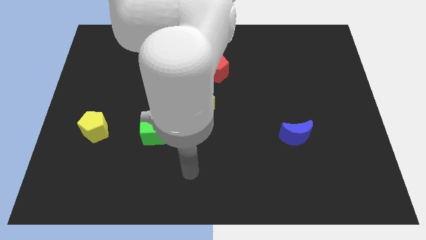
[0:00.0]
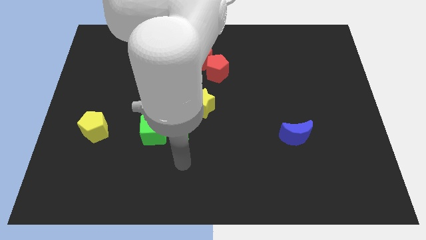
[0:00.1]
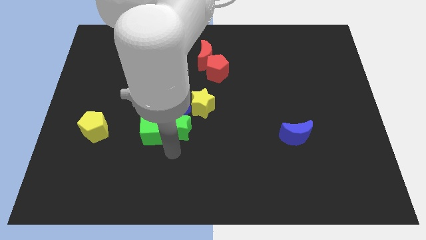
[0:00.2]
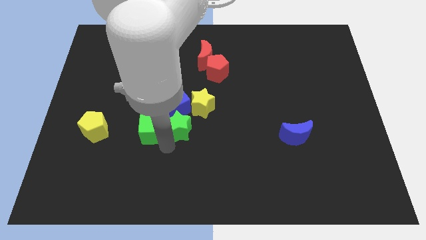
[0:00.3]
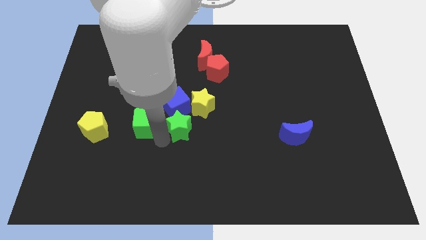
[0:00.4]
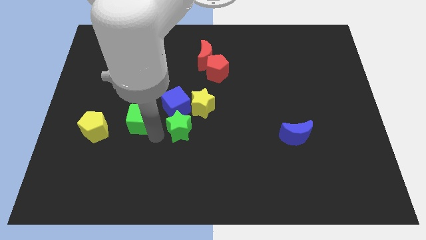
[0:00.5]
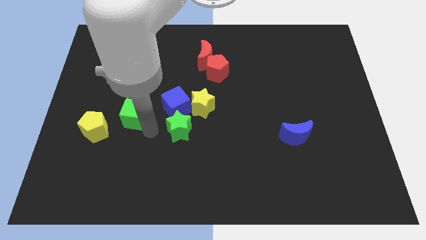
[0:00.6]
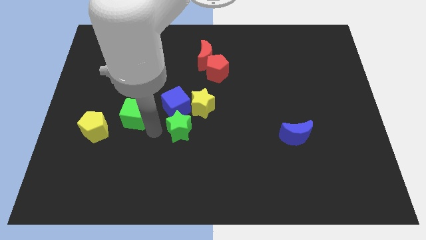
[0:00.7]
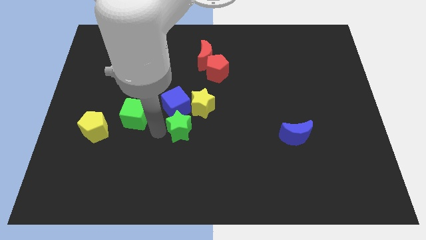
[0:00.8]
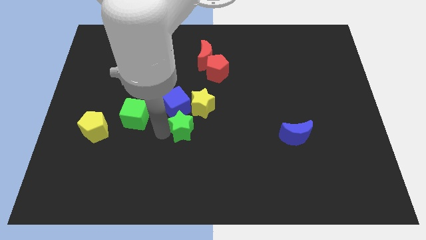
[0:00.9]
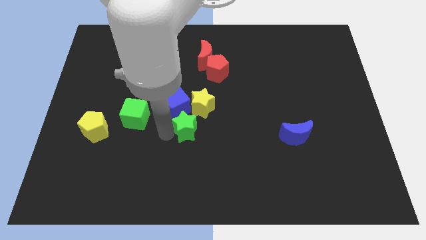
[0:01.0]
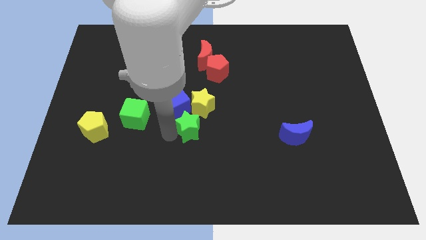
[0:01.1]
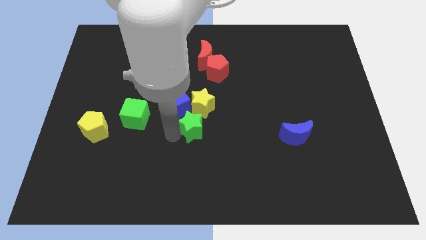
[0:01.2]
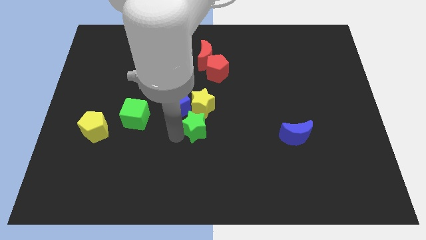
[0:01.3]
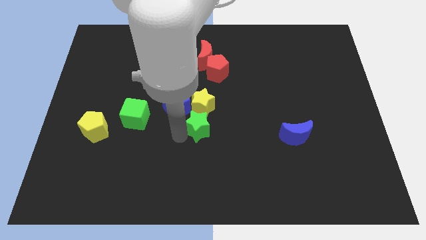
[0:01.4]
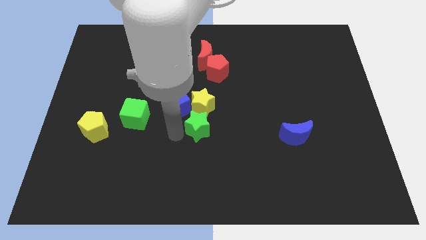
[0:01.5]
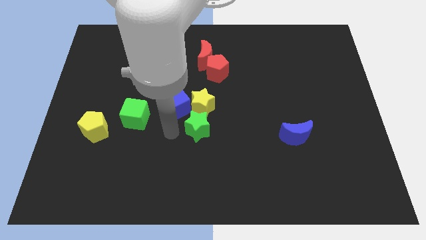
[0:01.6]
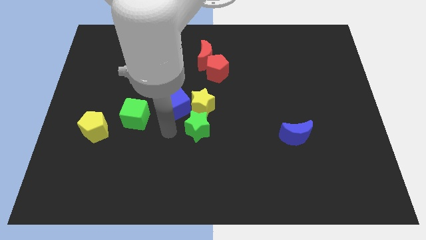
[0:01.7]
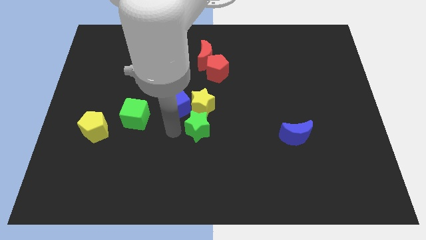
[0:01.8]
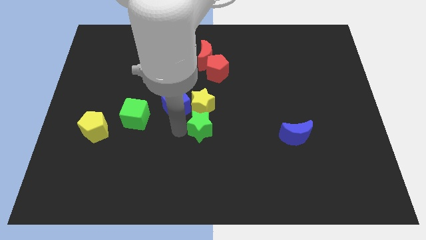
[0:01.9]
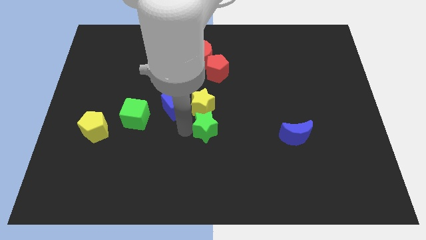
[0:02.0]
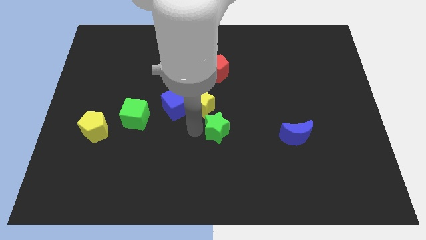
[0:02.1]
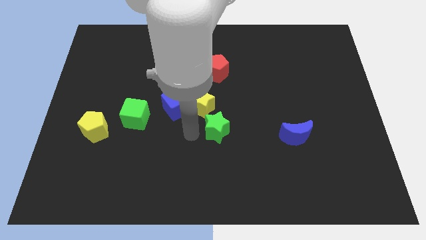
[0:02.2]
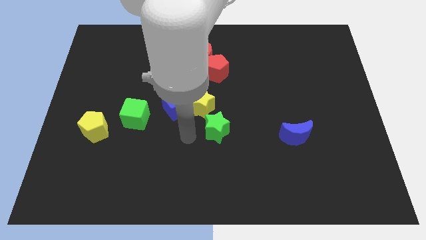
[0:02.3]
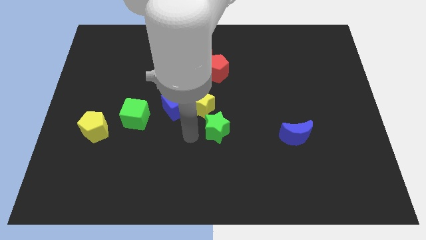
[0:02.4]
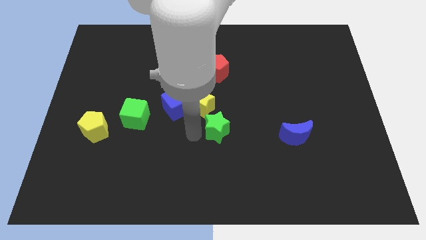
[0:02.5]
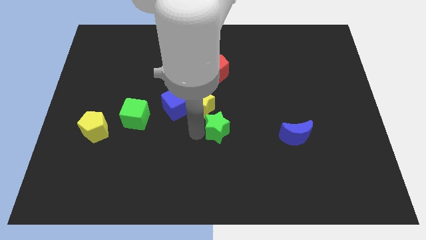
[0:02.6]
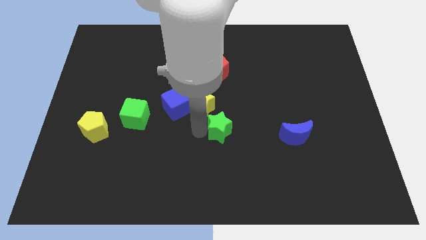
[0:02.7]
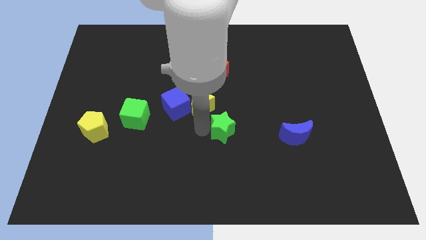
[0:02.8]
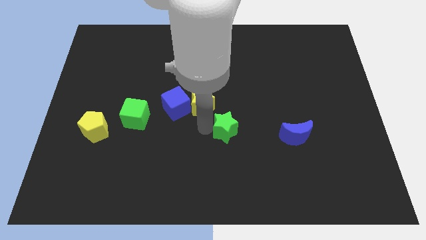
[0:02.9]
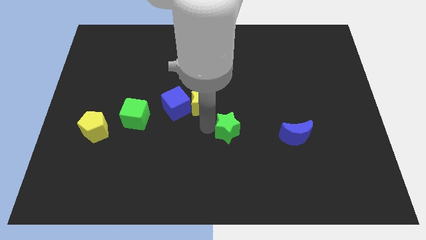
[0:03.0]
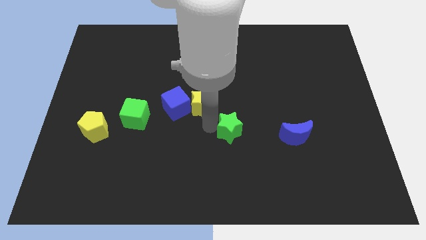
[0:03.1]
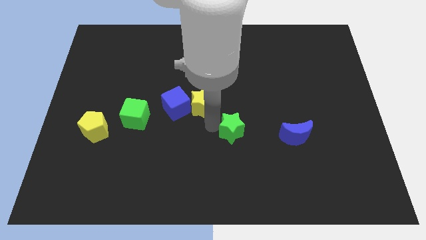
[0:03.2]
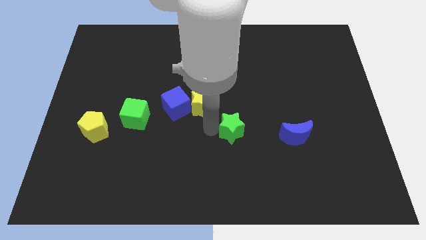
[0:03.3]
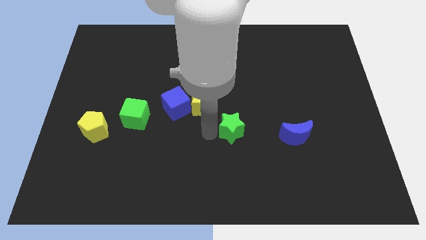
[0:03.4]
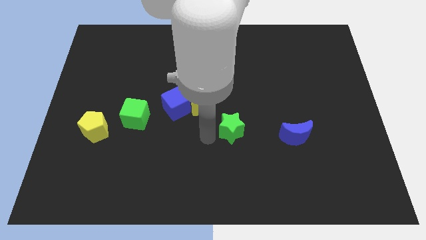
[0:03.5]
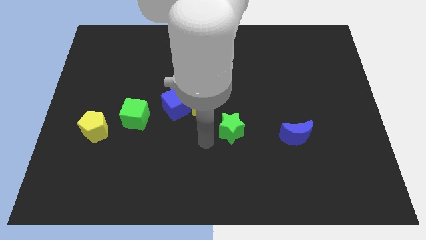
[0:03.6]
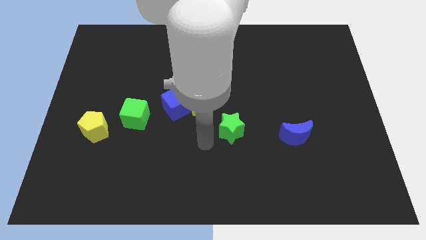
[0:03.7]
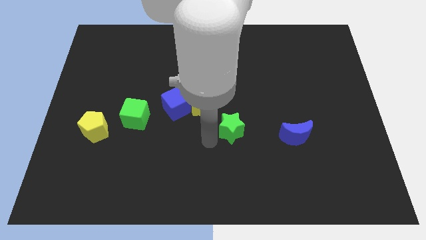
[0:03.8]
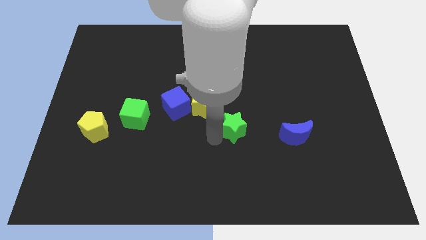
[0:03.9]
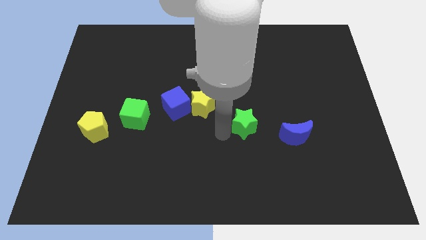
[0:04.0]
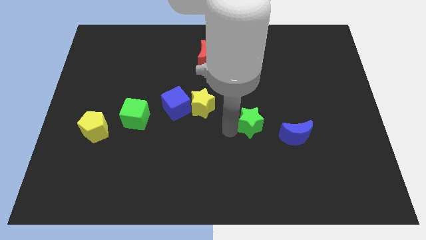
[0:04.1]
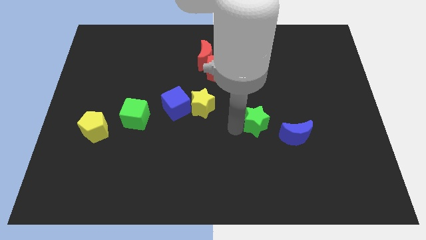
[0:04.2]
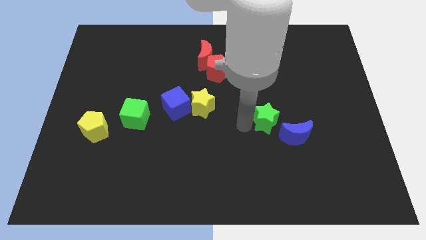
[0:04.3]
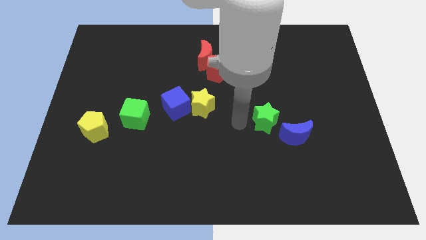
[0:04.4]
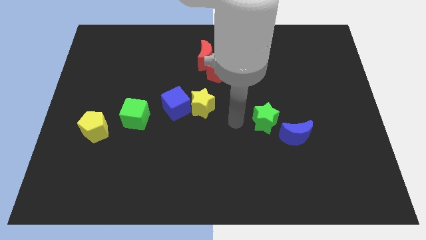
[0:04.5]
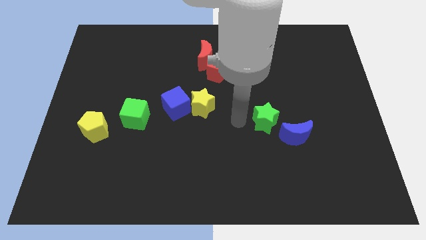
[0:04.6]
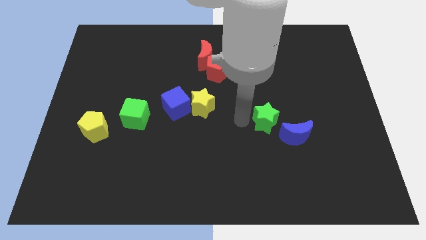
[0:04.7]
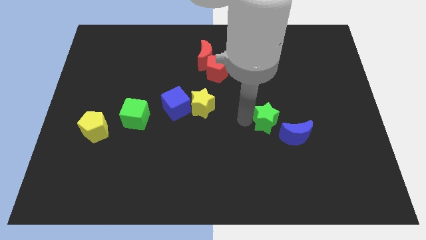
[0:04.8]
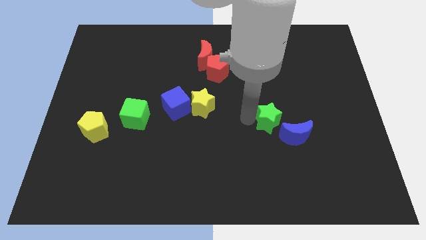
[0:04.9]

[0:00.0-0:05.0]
move the green star right

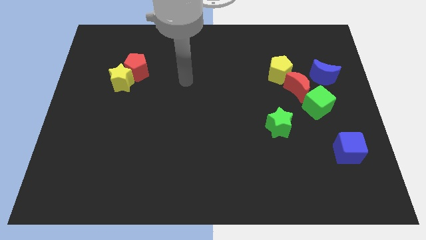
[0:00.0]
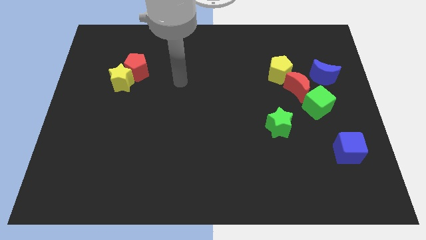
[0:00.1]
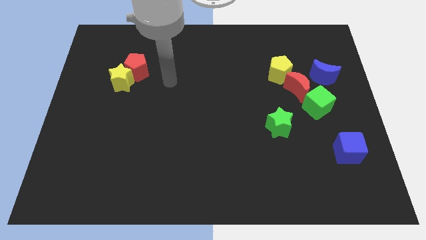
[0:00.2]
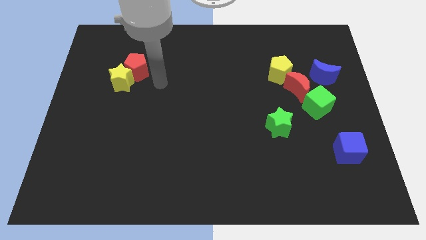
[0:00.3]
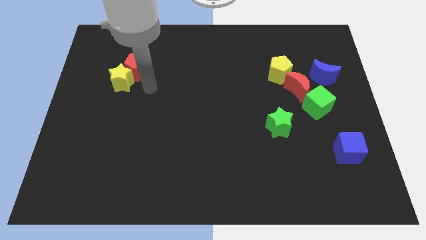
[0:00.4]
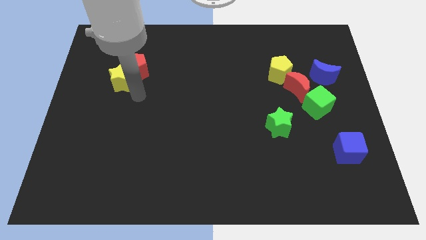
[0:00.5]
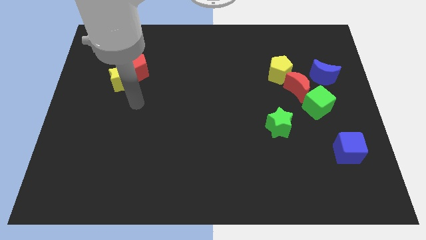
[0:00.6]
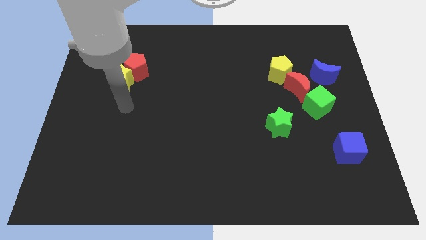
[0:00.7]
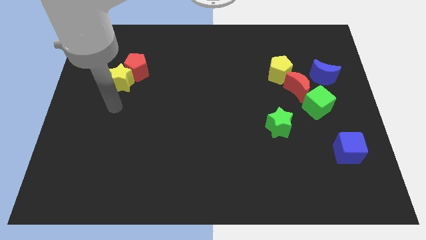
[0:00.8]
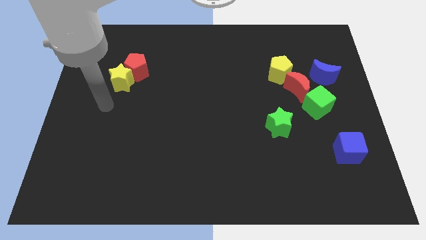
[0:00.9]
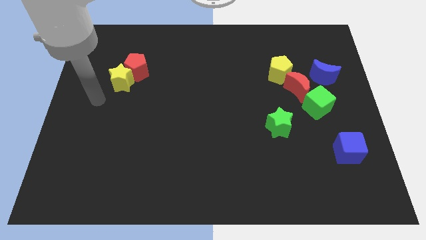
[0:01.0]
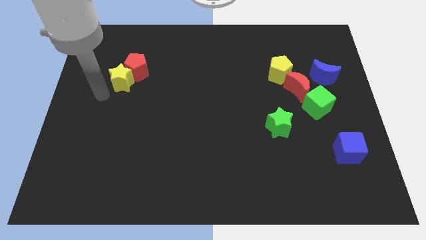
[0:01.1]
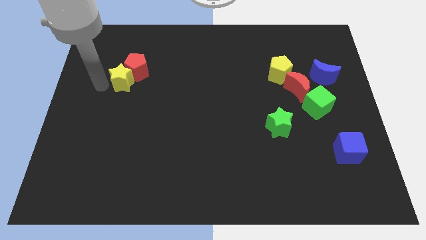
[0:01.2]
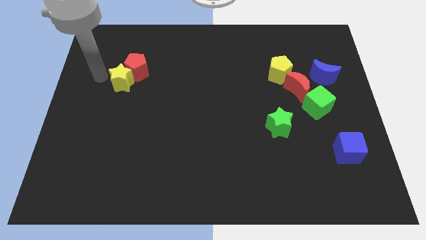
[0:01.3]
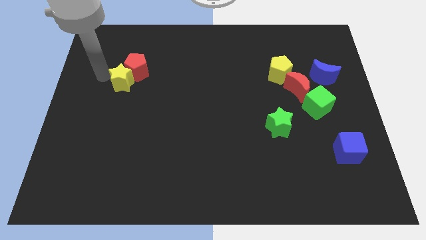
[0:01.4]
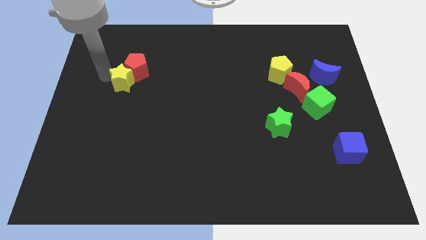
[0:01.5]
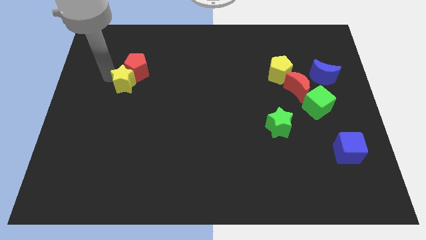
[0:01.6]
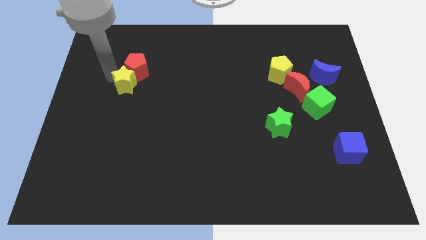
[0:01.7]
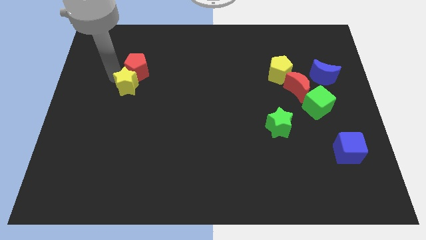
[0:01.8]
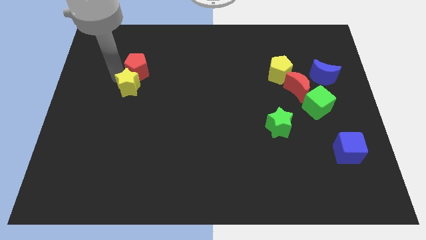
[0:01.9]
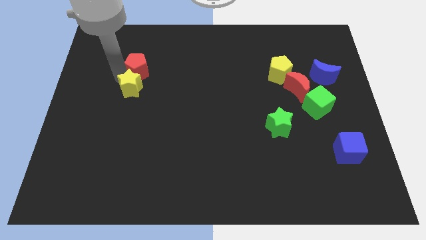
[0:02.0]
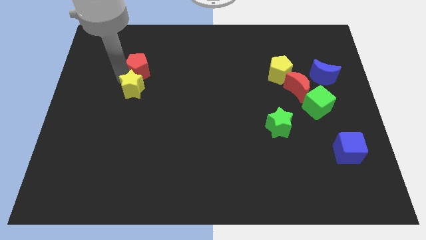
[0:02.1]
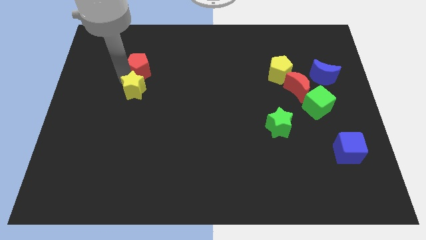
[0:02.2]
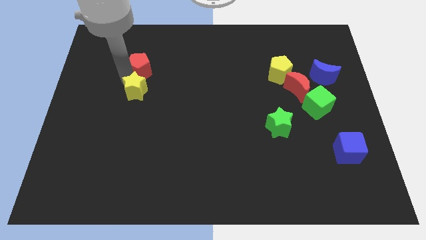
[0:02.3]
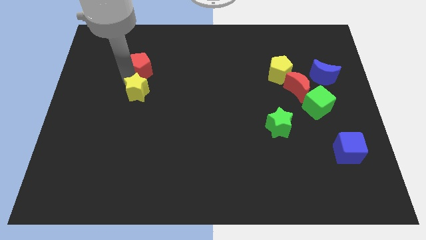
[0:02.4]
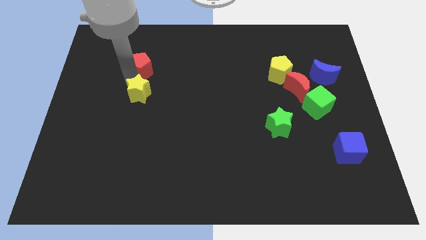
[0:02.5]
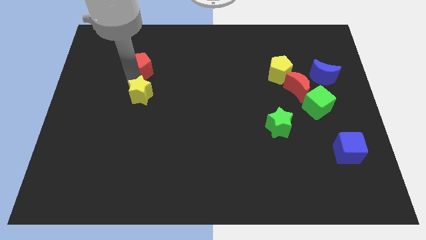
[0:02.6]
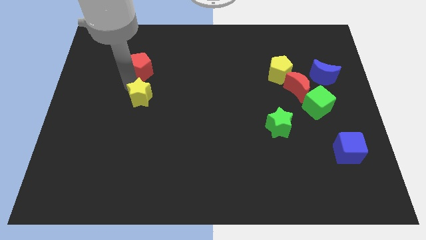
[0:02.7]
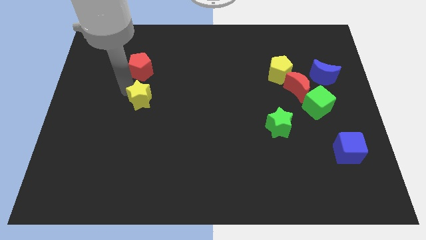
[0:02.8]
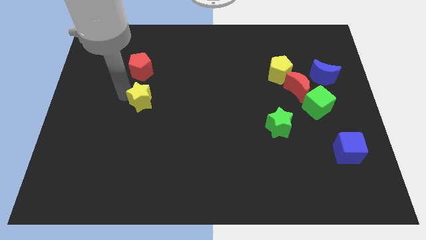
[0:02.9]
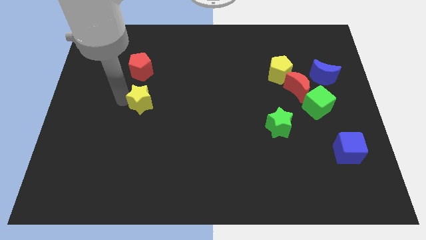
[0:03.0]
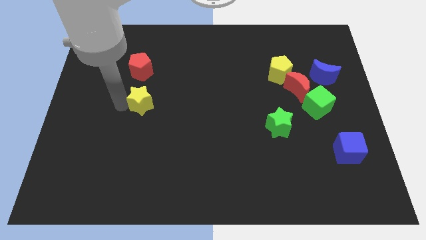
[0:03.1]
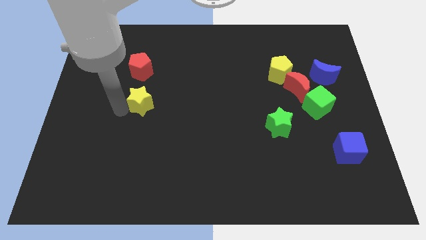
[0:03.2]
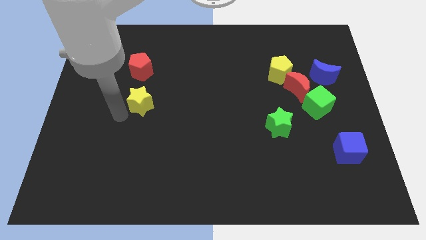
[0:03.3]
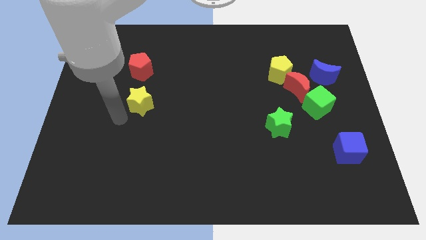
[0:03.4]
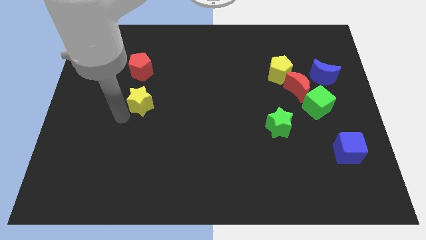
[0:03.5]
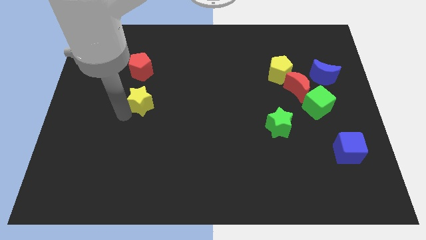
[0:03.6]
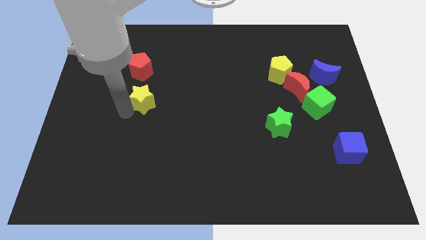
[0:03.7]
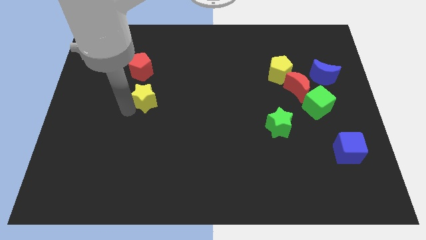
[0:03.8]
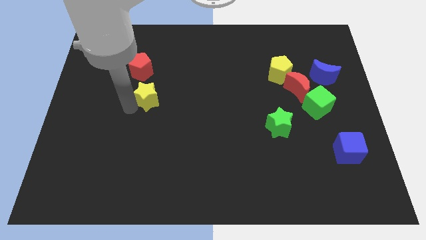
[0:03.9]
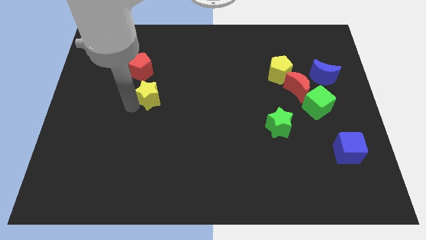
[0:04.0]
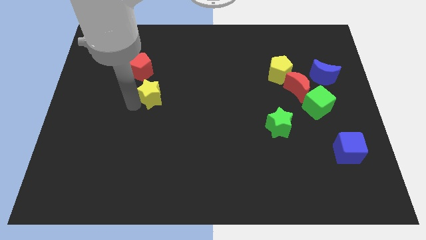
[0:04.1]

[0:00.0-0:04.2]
move the yellow star to the right somewhat
